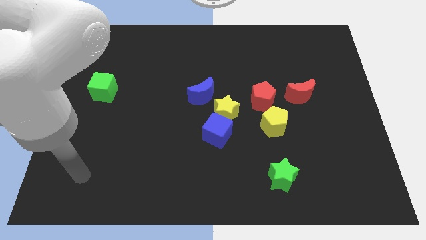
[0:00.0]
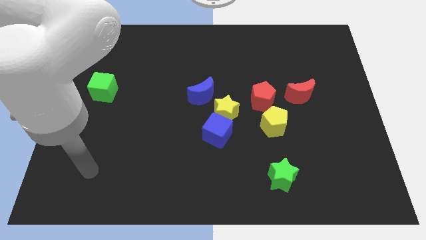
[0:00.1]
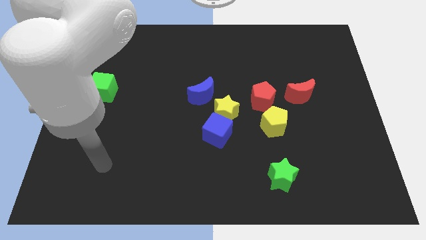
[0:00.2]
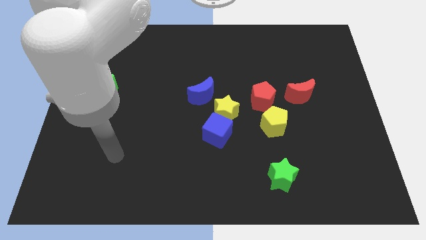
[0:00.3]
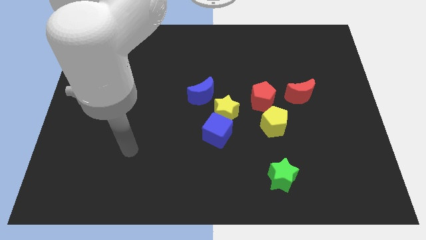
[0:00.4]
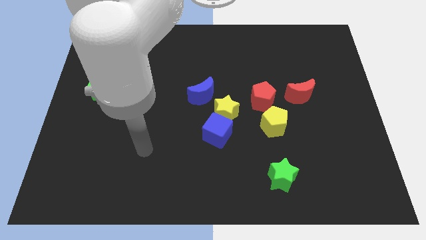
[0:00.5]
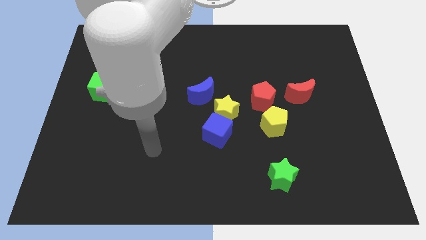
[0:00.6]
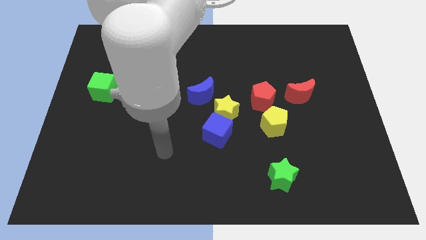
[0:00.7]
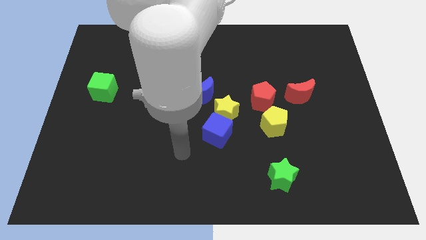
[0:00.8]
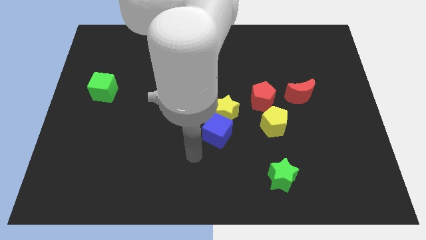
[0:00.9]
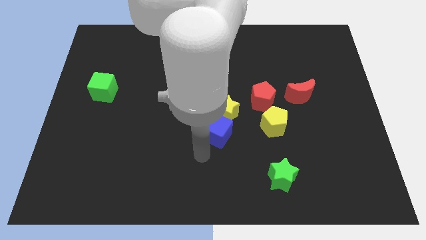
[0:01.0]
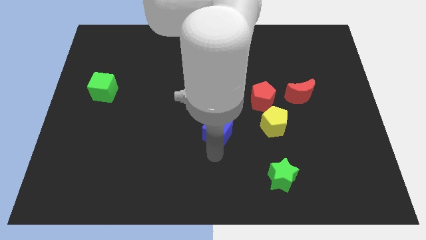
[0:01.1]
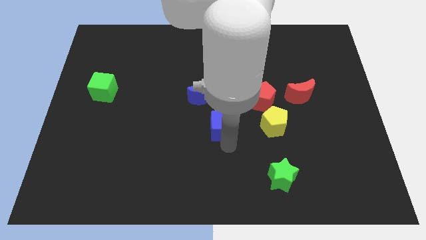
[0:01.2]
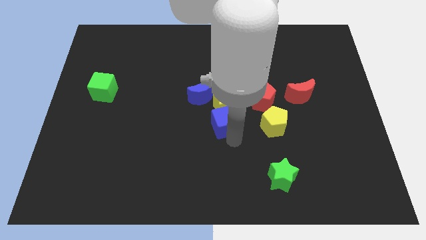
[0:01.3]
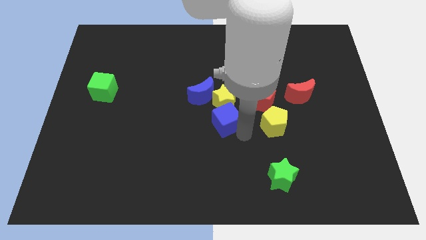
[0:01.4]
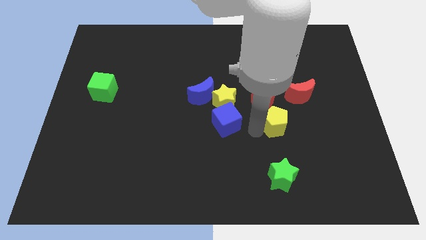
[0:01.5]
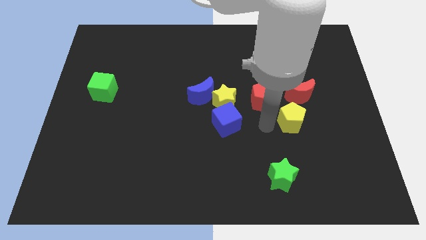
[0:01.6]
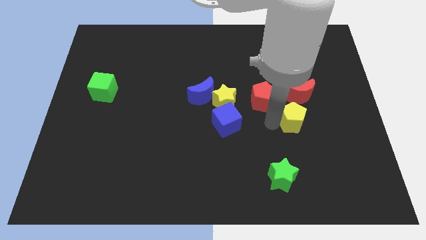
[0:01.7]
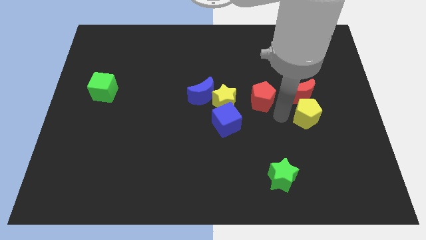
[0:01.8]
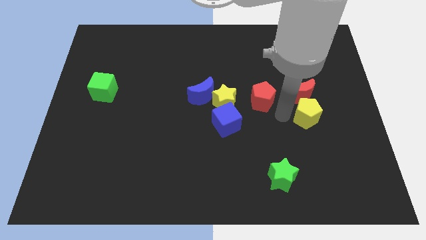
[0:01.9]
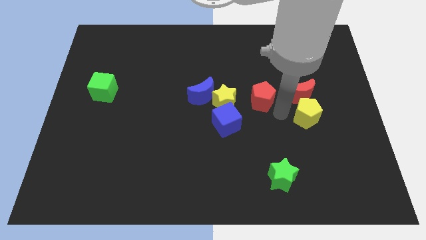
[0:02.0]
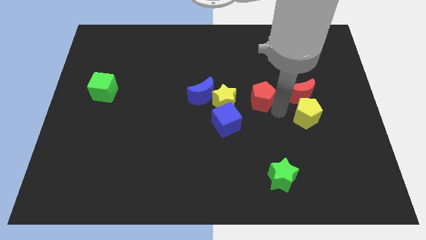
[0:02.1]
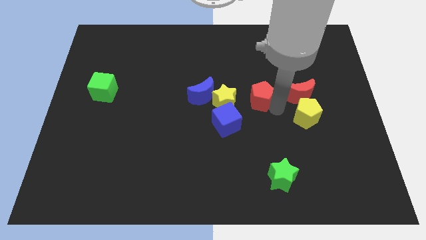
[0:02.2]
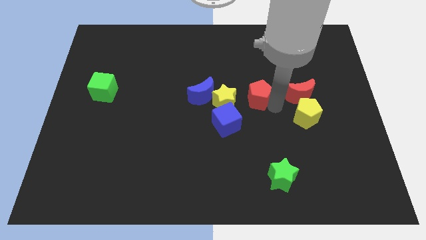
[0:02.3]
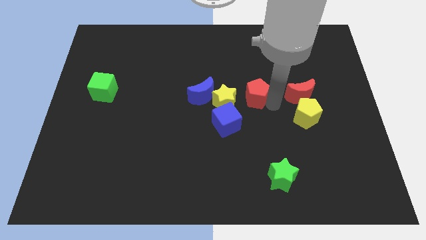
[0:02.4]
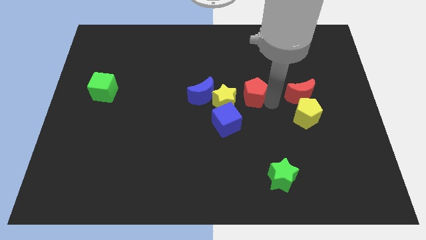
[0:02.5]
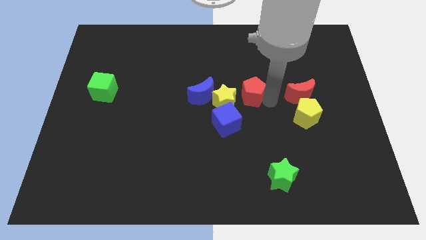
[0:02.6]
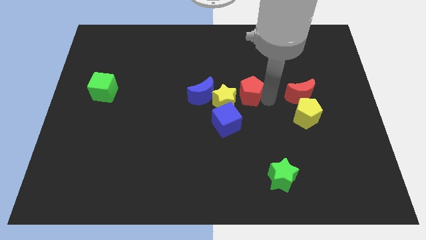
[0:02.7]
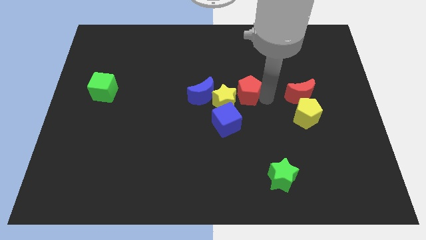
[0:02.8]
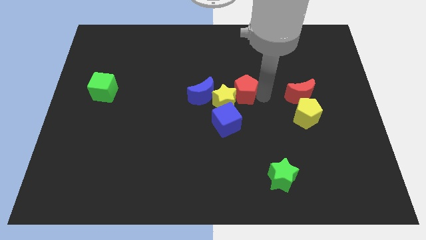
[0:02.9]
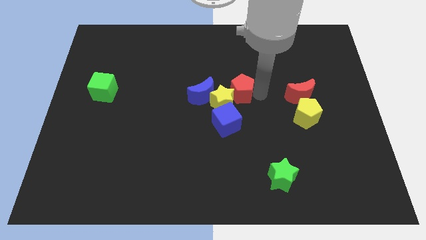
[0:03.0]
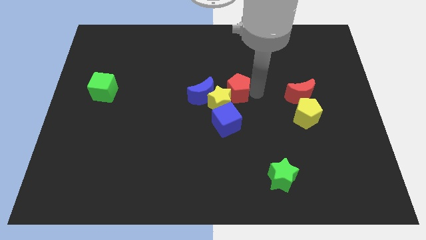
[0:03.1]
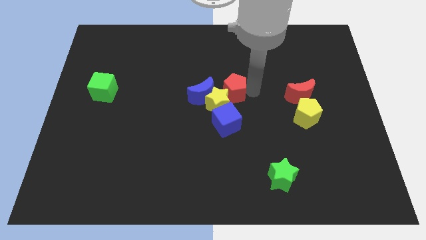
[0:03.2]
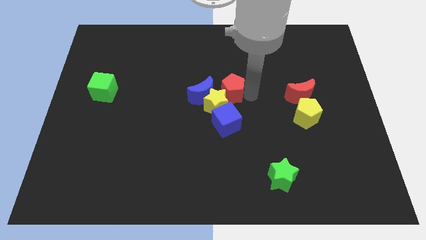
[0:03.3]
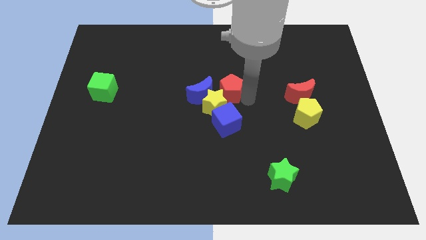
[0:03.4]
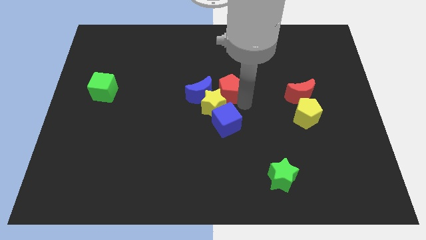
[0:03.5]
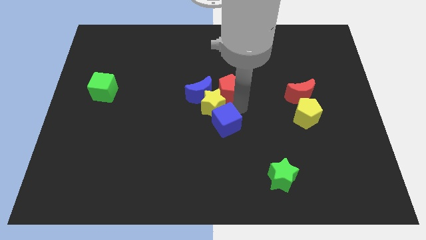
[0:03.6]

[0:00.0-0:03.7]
move the red pentagon upwards and left diagonally a little bit

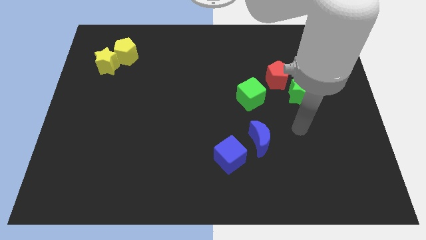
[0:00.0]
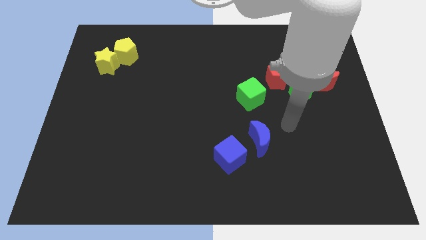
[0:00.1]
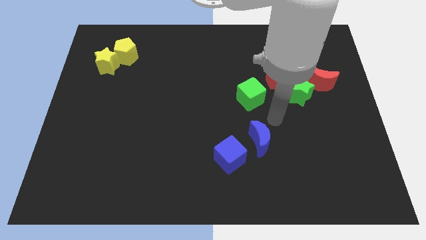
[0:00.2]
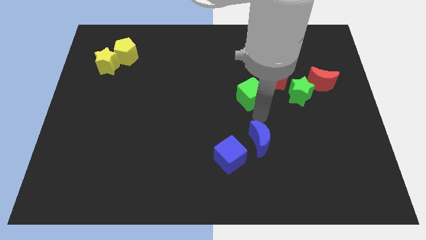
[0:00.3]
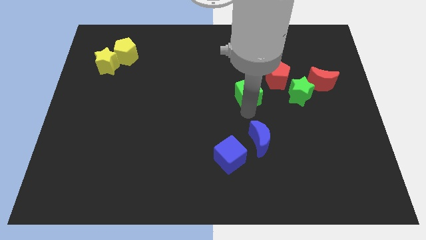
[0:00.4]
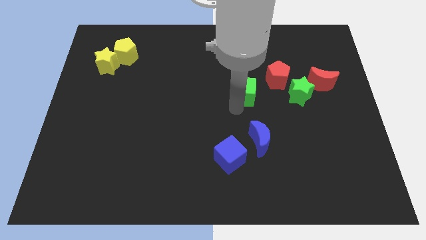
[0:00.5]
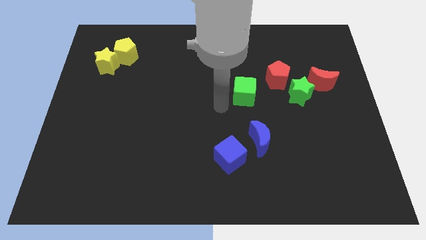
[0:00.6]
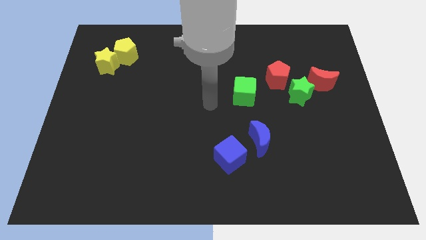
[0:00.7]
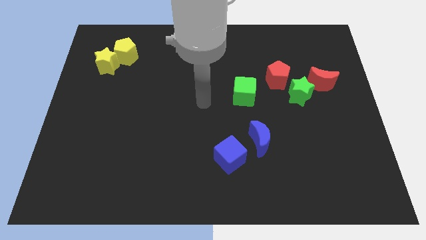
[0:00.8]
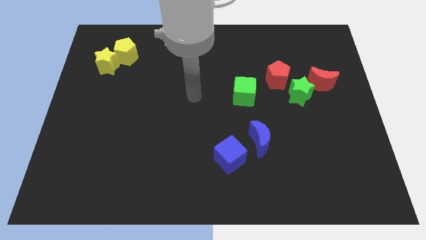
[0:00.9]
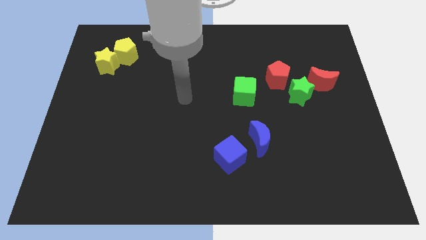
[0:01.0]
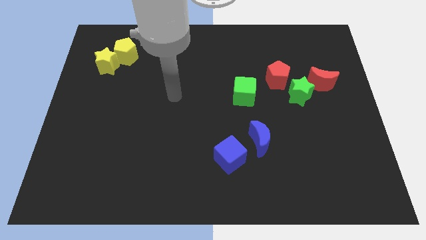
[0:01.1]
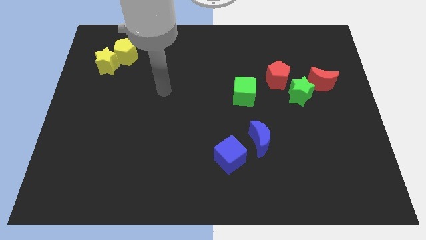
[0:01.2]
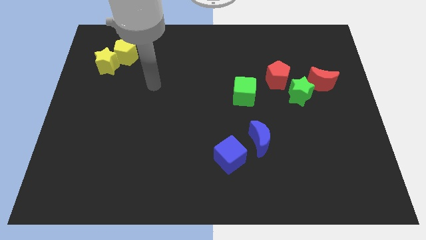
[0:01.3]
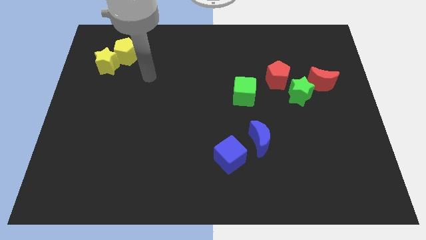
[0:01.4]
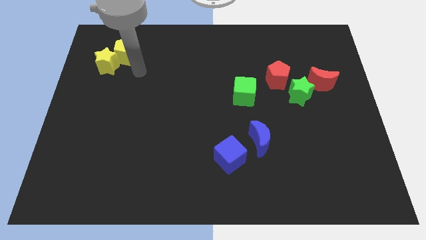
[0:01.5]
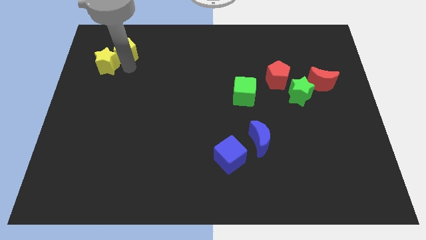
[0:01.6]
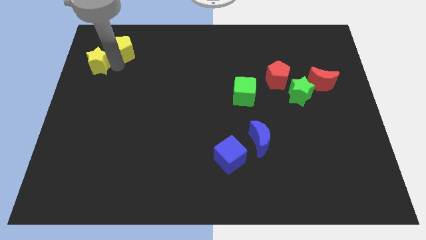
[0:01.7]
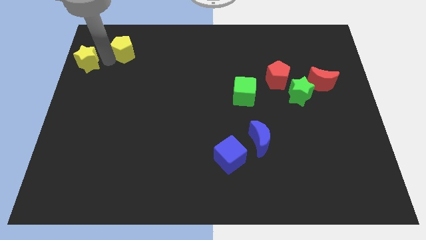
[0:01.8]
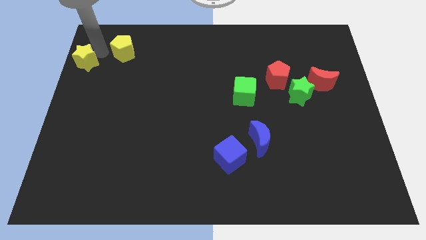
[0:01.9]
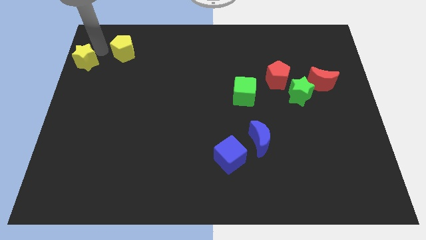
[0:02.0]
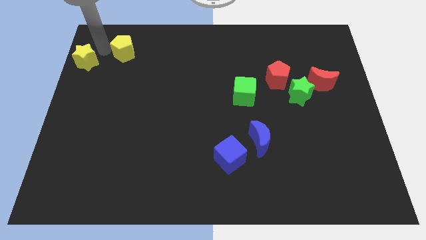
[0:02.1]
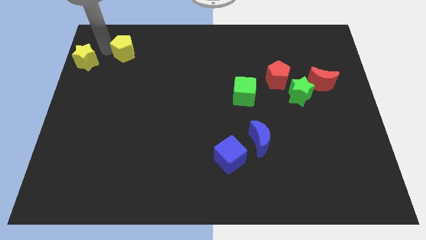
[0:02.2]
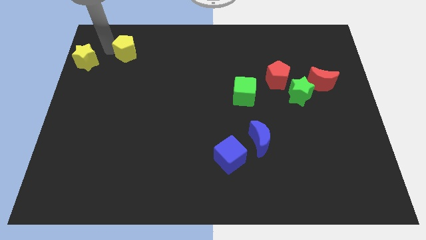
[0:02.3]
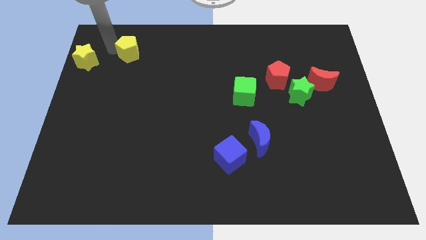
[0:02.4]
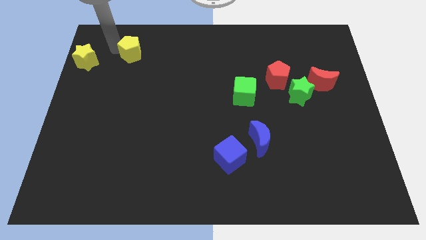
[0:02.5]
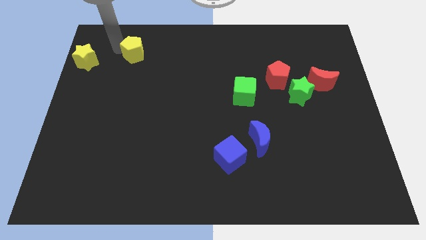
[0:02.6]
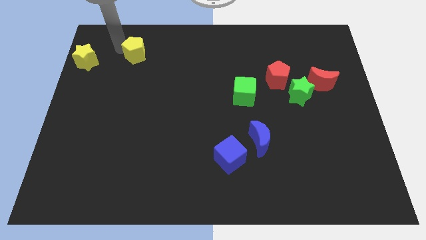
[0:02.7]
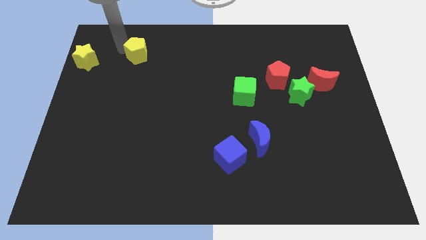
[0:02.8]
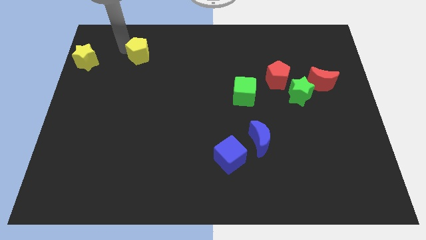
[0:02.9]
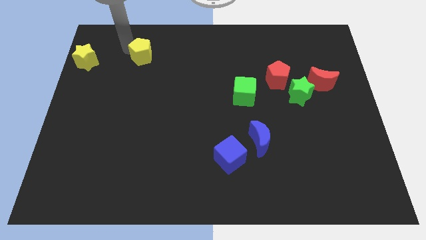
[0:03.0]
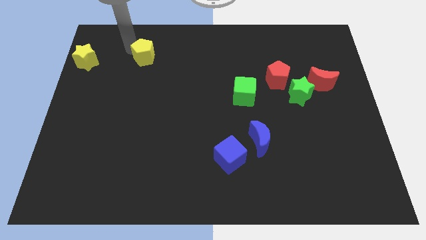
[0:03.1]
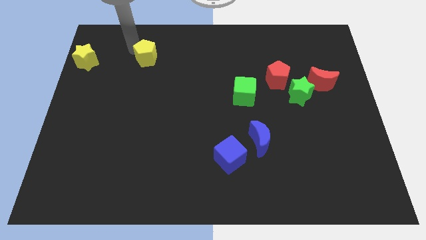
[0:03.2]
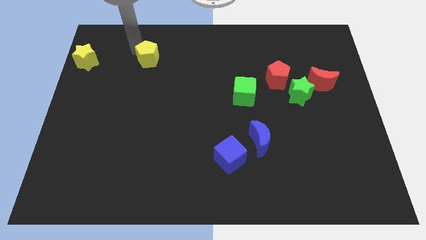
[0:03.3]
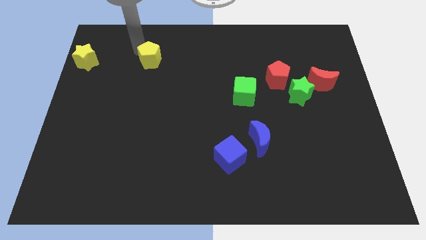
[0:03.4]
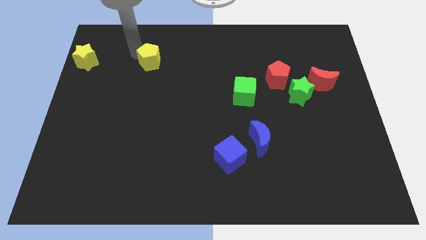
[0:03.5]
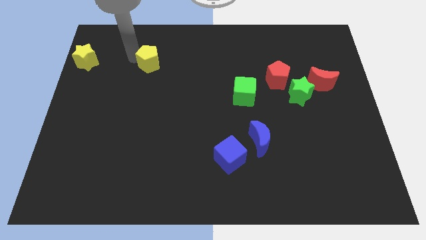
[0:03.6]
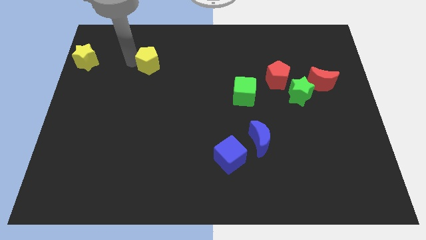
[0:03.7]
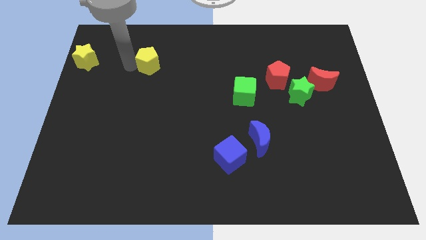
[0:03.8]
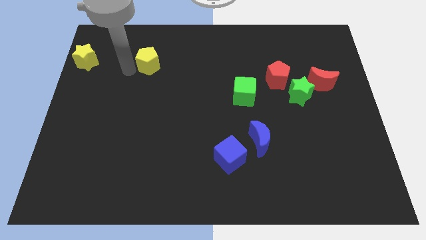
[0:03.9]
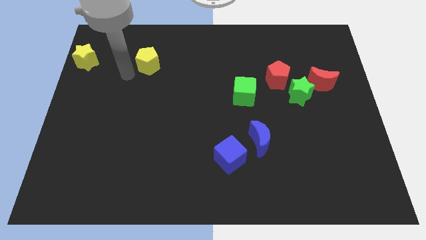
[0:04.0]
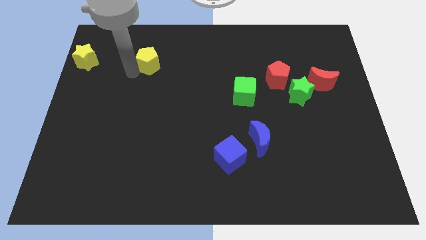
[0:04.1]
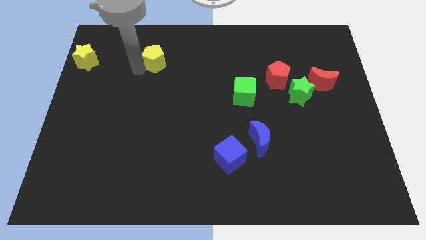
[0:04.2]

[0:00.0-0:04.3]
move the yellow pentagon a little right

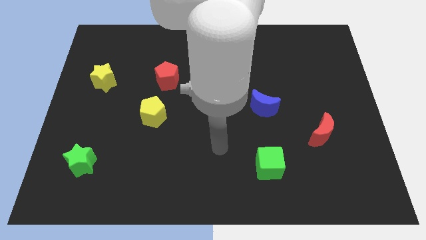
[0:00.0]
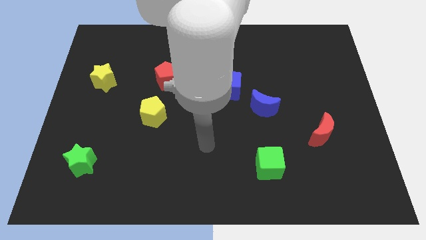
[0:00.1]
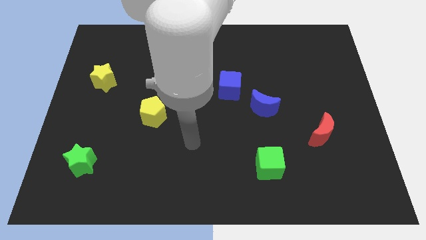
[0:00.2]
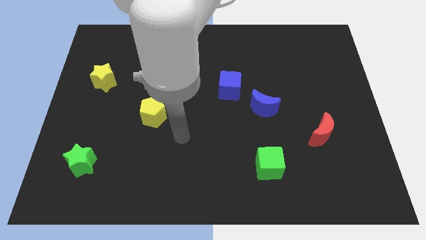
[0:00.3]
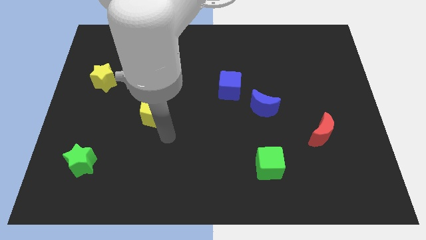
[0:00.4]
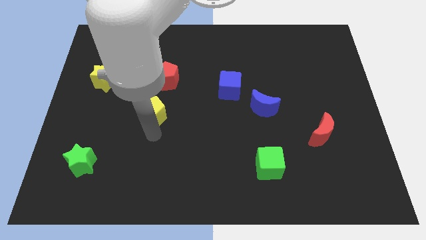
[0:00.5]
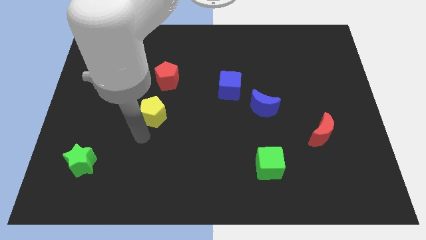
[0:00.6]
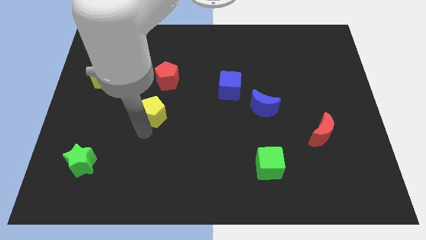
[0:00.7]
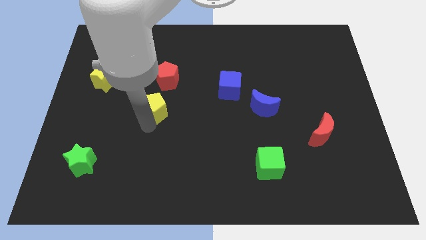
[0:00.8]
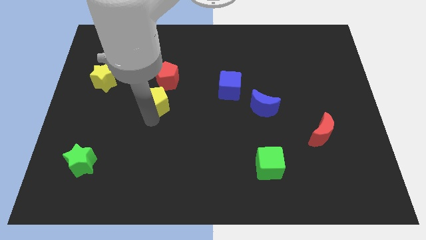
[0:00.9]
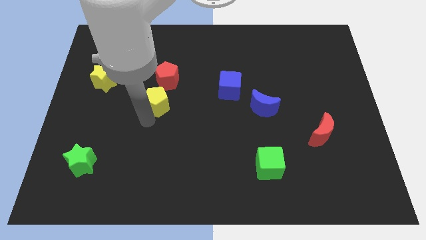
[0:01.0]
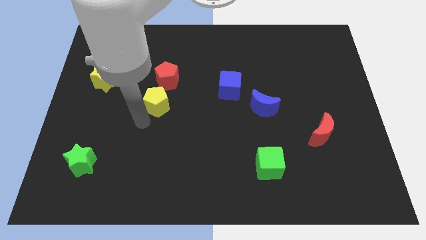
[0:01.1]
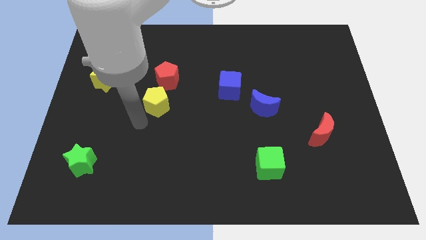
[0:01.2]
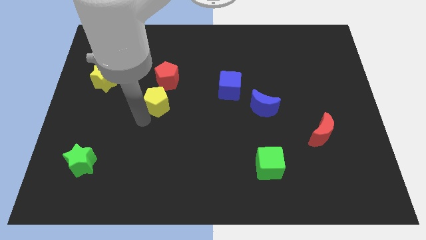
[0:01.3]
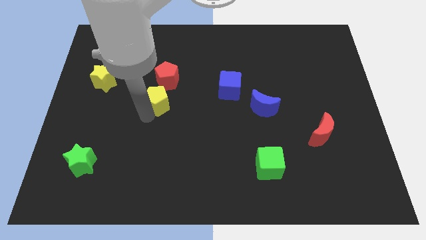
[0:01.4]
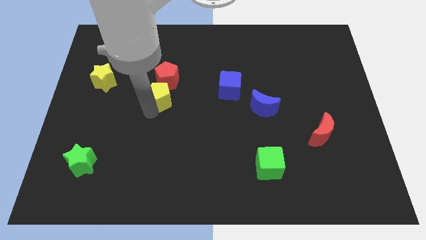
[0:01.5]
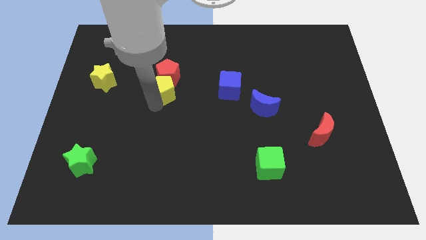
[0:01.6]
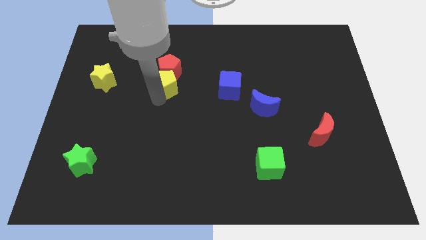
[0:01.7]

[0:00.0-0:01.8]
slightly slide the yellow pentagon diagonally upwards and to the right
